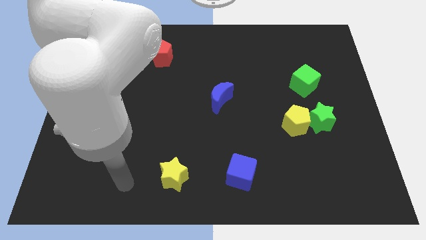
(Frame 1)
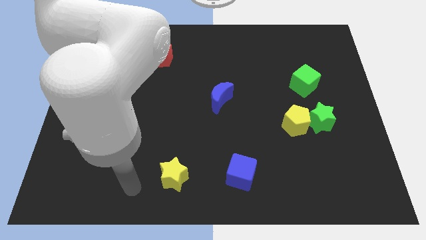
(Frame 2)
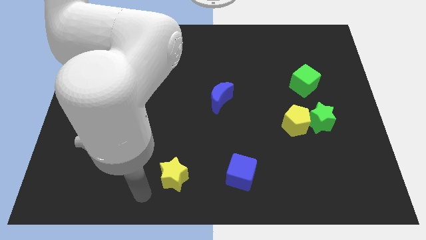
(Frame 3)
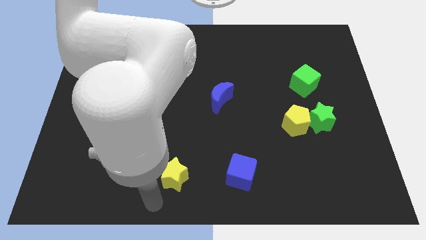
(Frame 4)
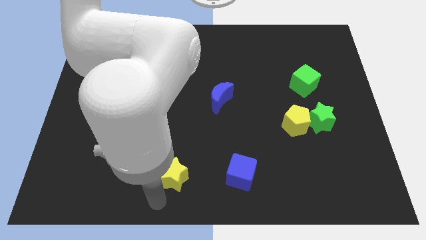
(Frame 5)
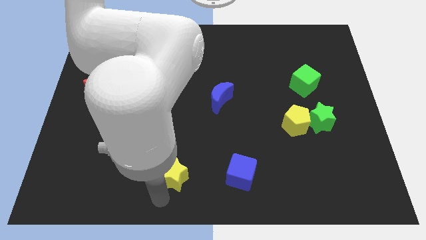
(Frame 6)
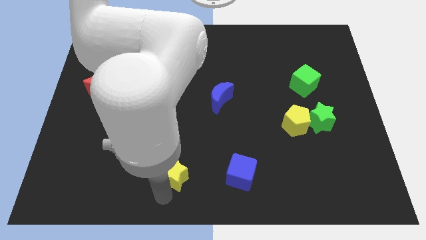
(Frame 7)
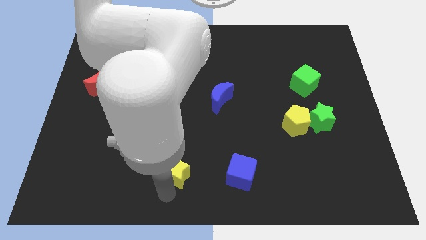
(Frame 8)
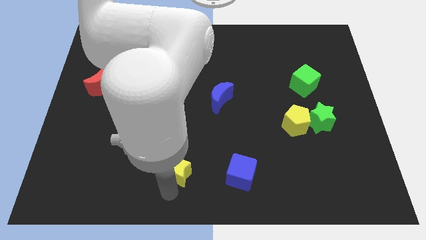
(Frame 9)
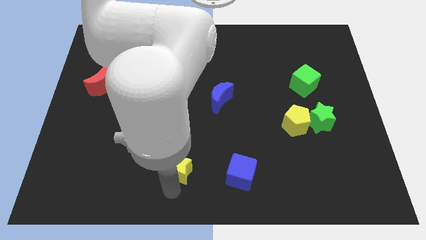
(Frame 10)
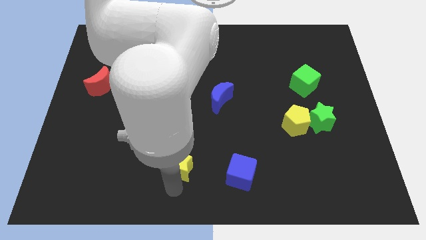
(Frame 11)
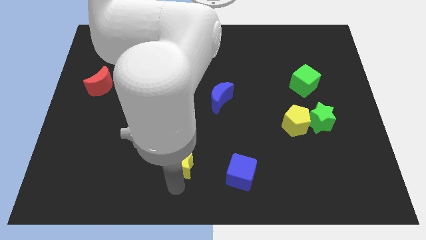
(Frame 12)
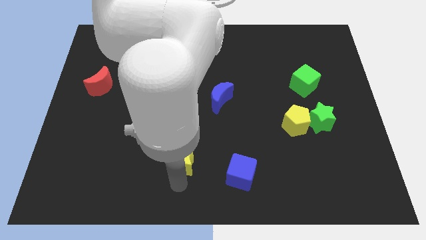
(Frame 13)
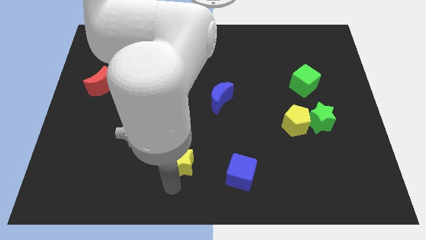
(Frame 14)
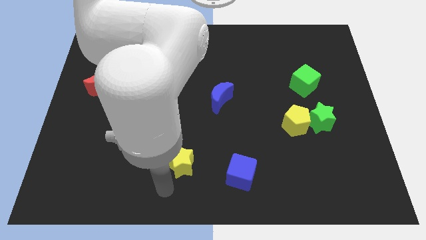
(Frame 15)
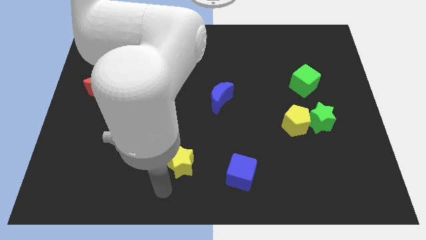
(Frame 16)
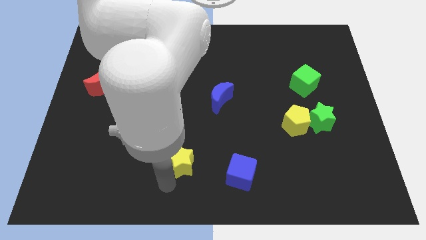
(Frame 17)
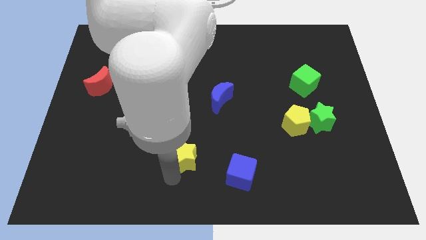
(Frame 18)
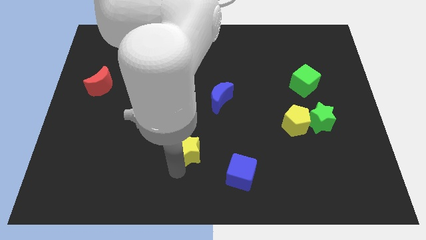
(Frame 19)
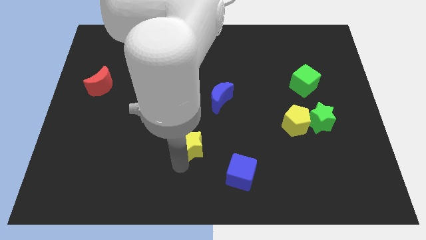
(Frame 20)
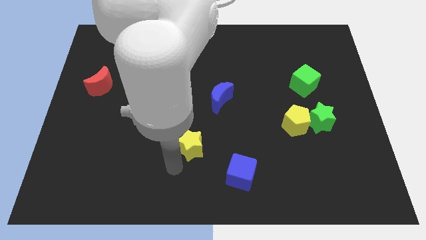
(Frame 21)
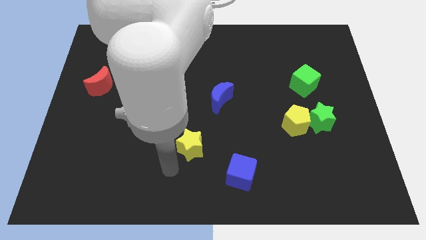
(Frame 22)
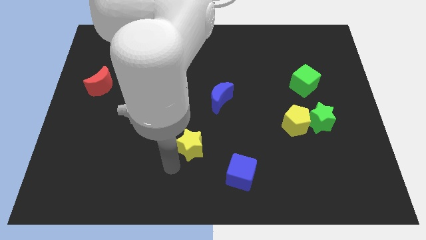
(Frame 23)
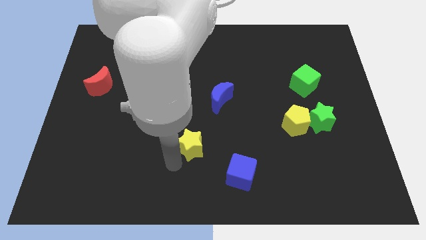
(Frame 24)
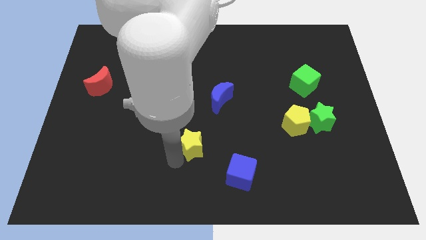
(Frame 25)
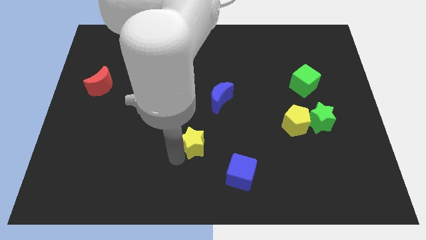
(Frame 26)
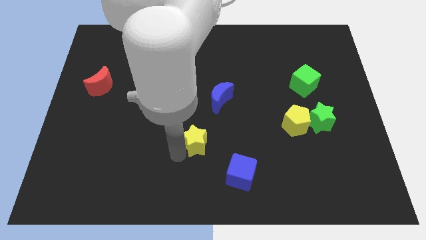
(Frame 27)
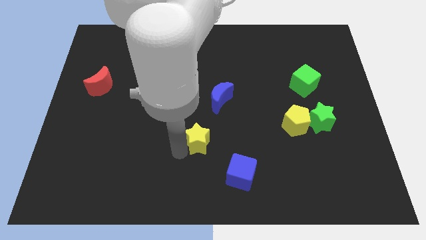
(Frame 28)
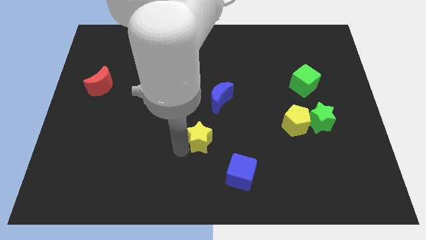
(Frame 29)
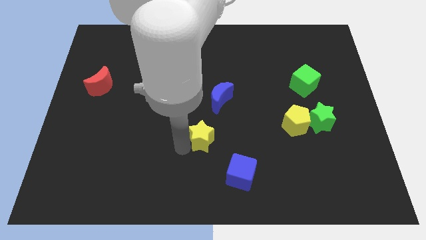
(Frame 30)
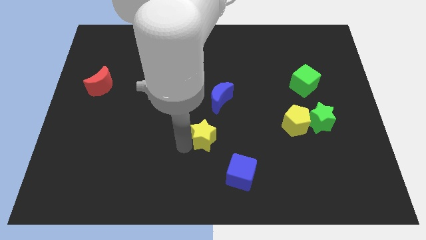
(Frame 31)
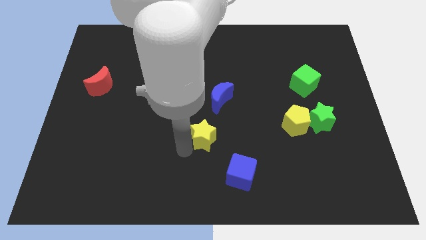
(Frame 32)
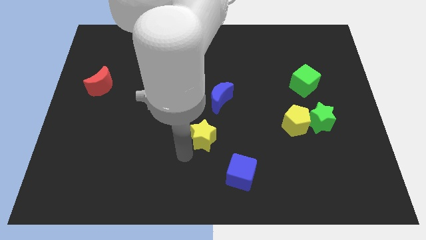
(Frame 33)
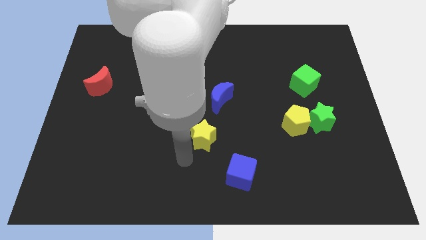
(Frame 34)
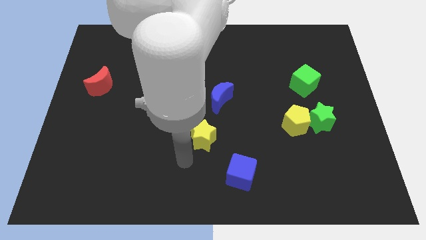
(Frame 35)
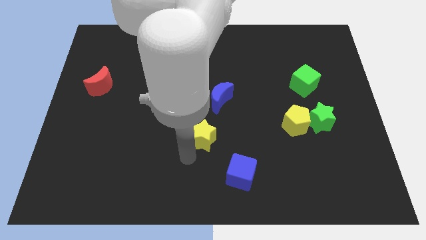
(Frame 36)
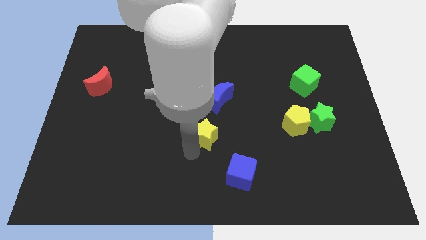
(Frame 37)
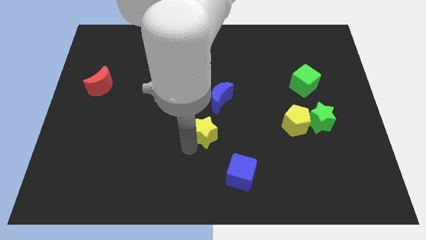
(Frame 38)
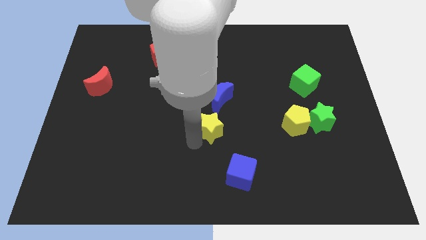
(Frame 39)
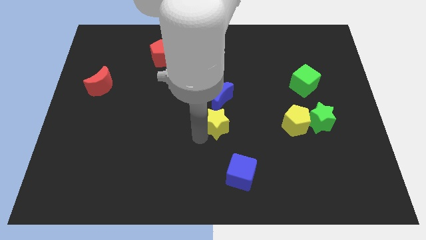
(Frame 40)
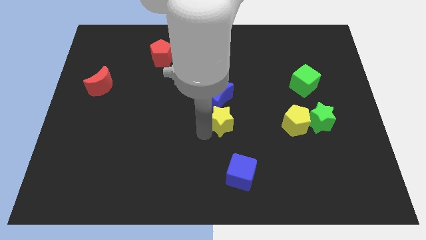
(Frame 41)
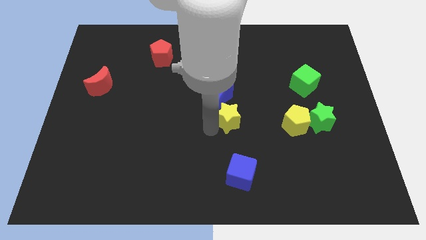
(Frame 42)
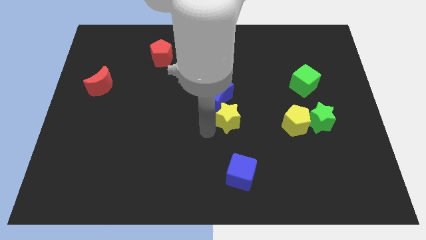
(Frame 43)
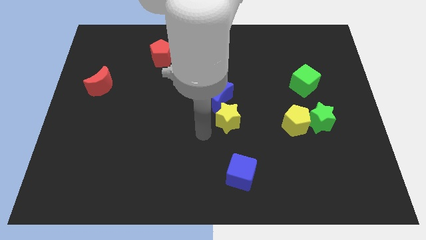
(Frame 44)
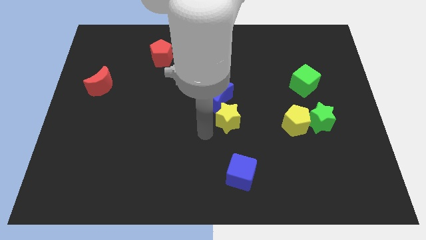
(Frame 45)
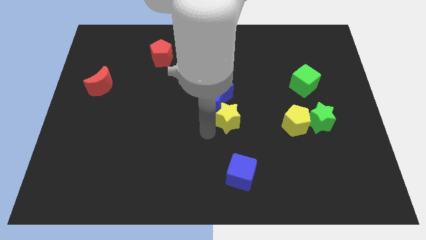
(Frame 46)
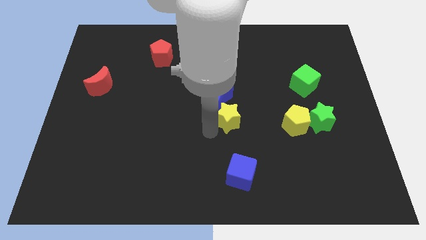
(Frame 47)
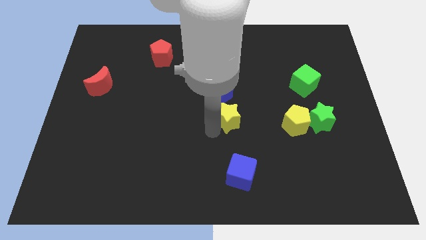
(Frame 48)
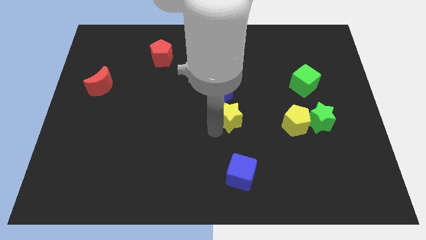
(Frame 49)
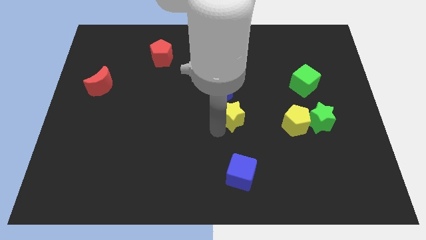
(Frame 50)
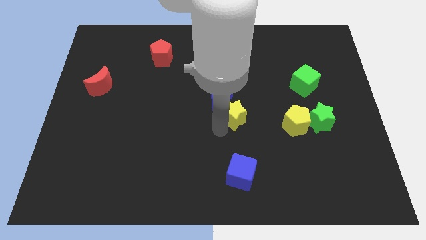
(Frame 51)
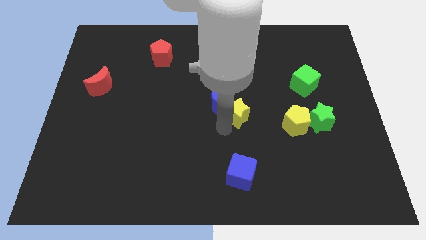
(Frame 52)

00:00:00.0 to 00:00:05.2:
slide the yellow star diagonally up and to the right

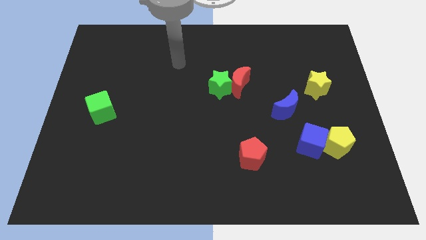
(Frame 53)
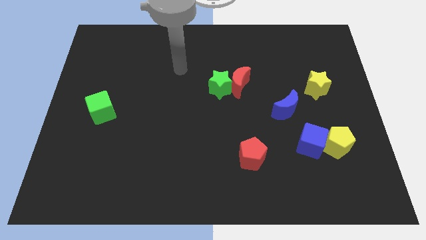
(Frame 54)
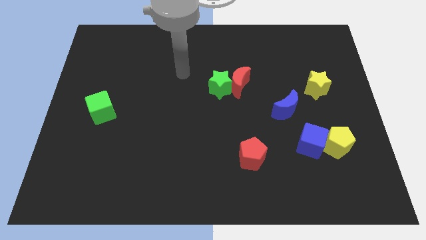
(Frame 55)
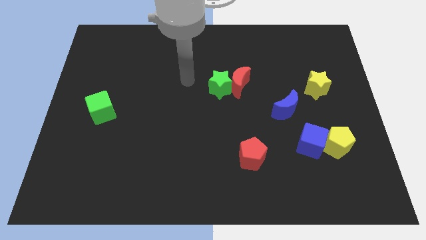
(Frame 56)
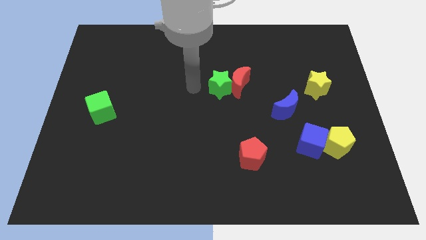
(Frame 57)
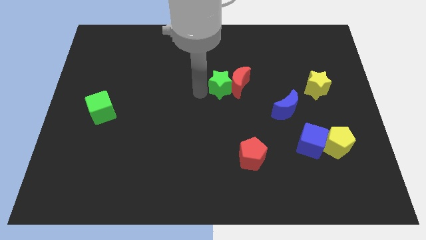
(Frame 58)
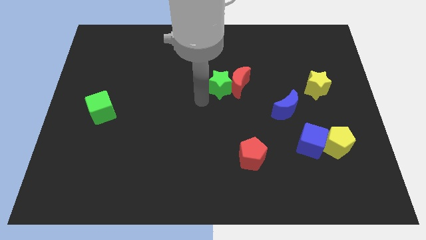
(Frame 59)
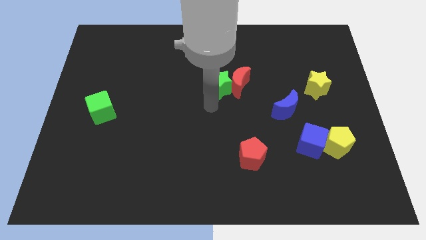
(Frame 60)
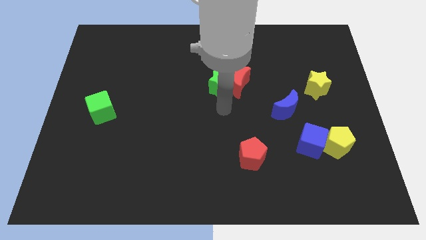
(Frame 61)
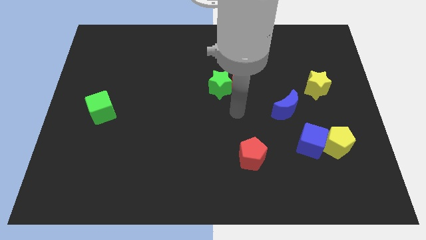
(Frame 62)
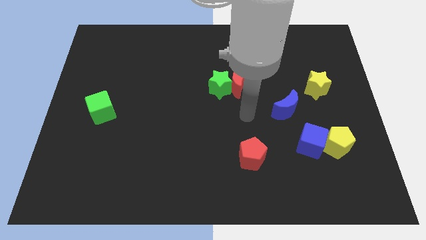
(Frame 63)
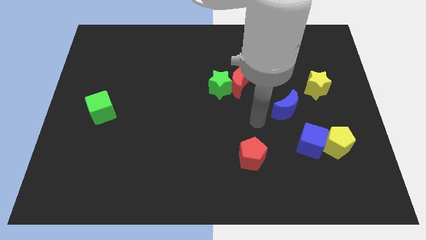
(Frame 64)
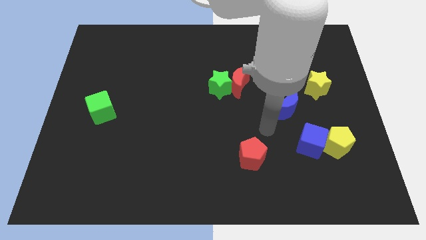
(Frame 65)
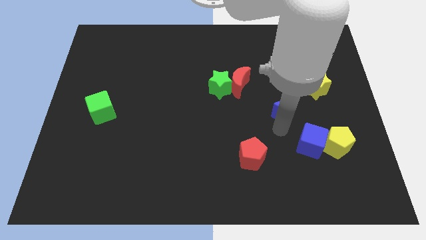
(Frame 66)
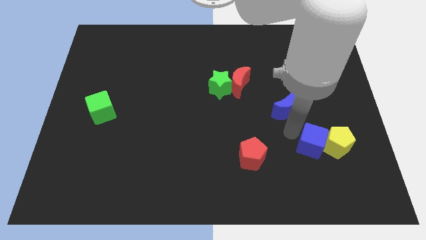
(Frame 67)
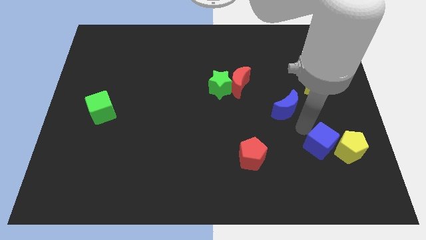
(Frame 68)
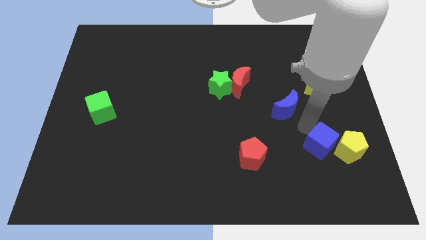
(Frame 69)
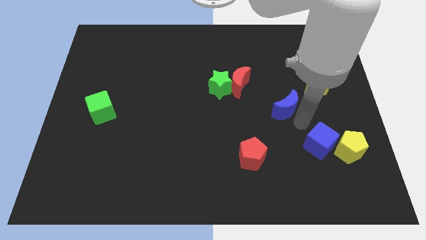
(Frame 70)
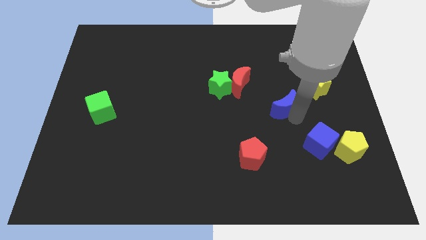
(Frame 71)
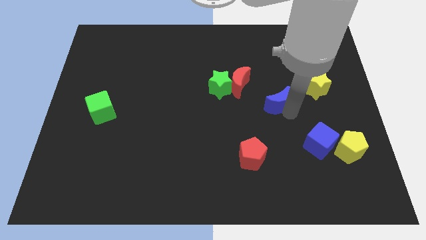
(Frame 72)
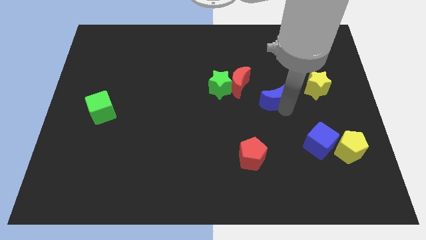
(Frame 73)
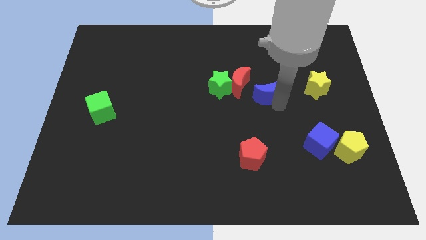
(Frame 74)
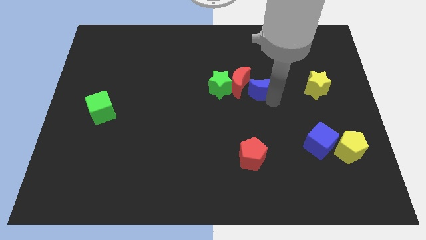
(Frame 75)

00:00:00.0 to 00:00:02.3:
slightly move the blue moon upwards and to the left

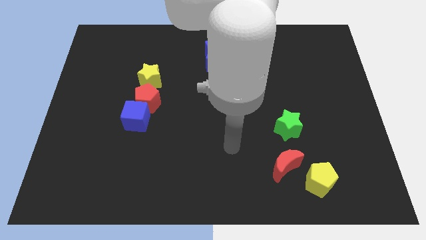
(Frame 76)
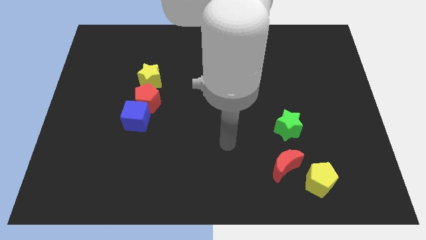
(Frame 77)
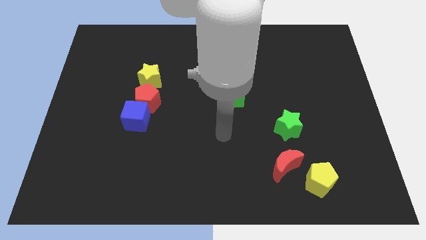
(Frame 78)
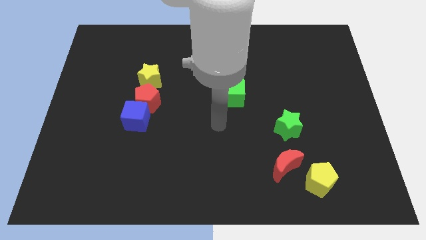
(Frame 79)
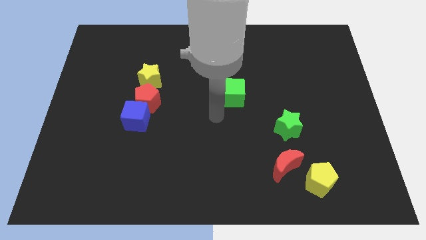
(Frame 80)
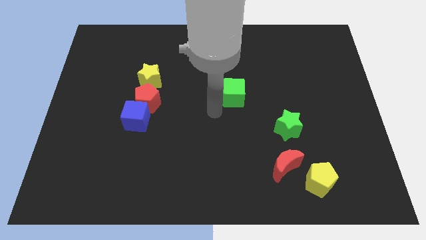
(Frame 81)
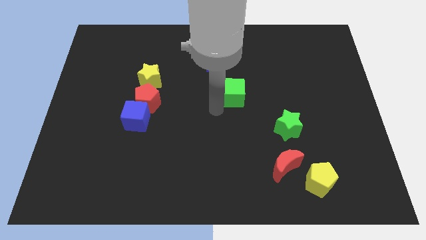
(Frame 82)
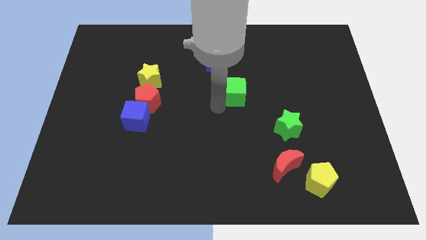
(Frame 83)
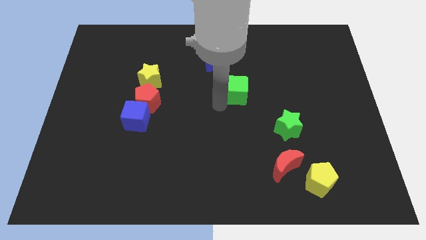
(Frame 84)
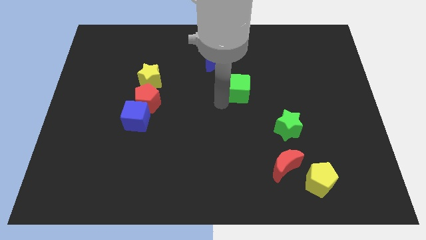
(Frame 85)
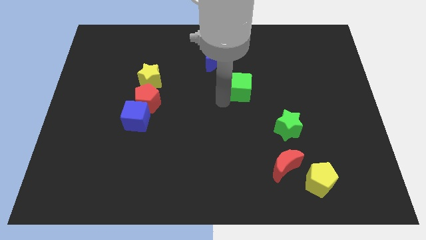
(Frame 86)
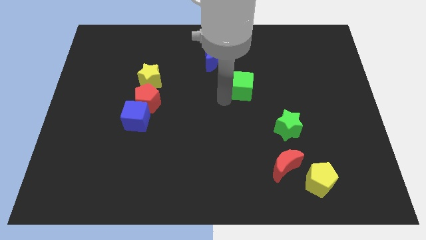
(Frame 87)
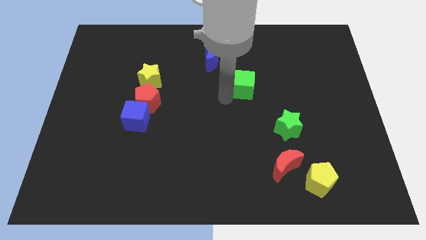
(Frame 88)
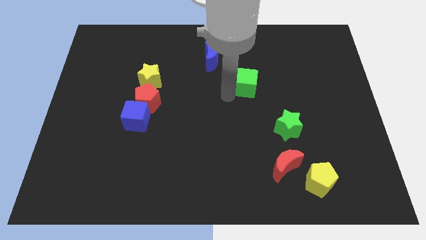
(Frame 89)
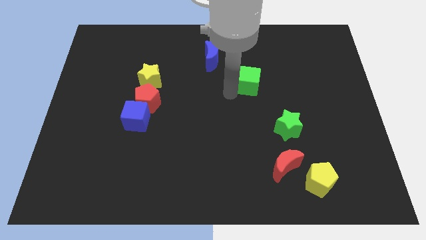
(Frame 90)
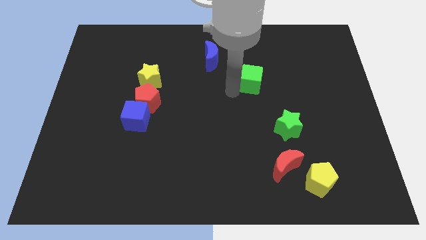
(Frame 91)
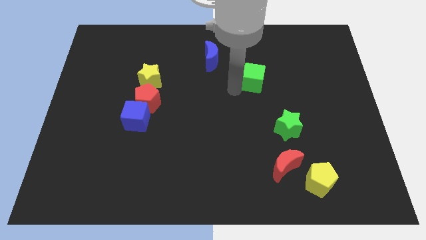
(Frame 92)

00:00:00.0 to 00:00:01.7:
slightly move the green cube upwards and right
